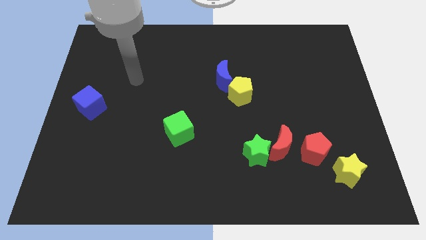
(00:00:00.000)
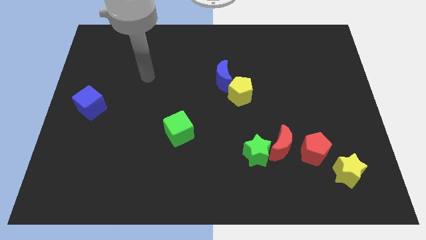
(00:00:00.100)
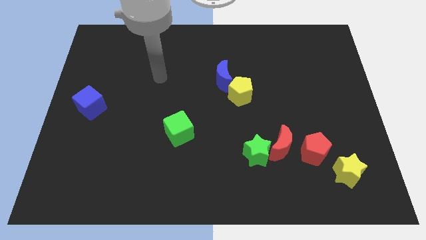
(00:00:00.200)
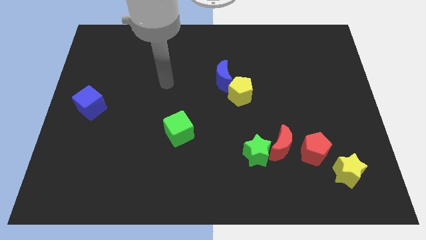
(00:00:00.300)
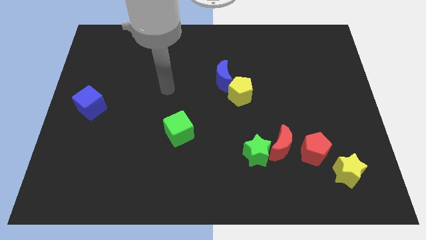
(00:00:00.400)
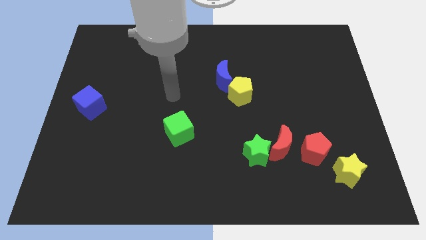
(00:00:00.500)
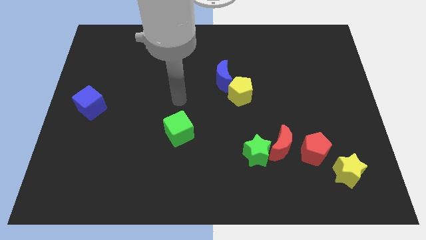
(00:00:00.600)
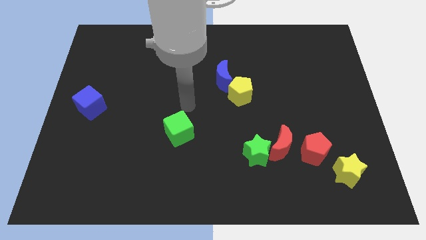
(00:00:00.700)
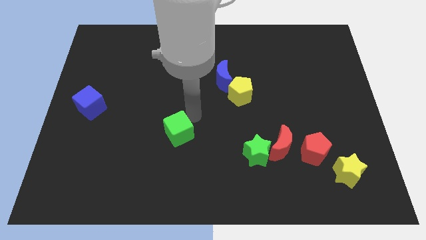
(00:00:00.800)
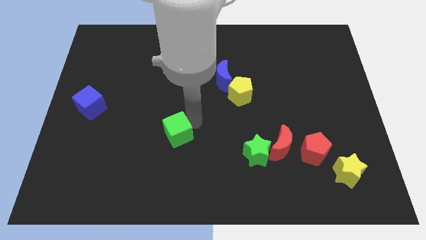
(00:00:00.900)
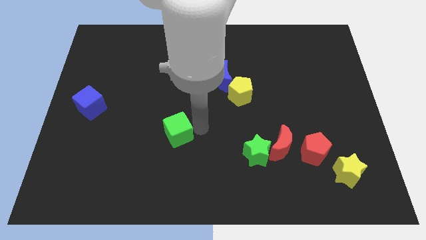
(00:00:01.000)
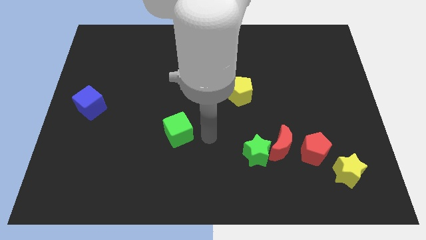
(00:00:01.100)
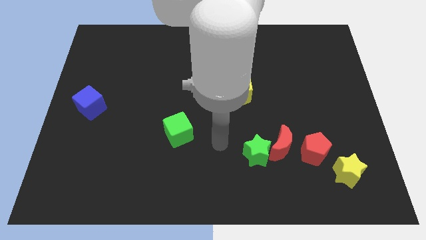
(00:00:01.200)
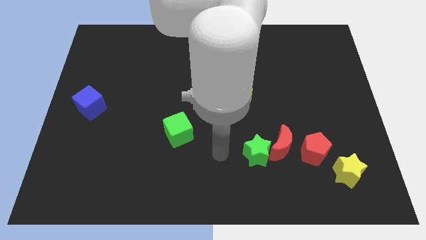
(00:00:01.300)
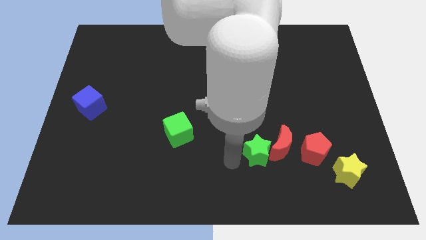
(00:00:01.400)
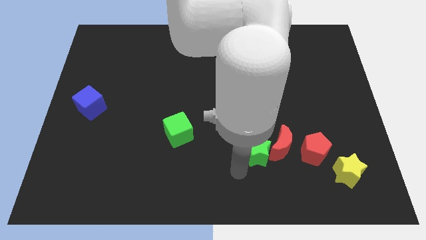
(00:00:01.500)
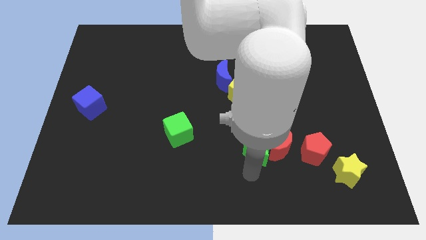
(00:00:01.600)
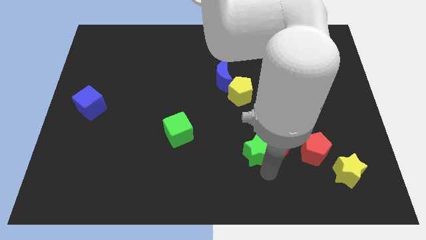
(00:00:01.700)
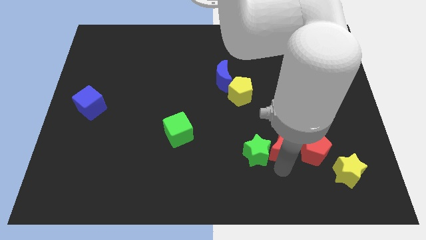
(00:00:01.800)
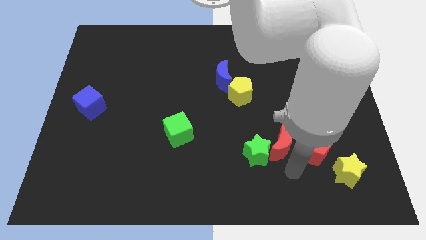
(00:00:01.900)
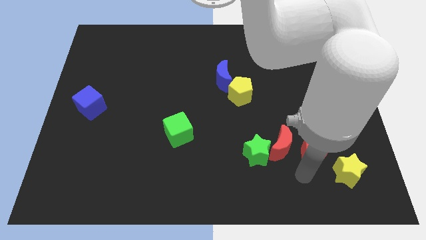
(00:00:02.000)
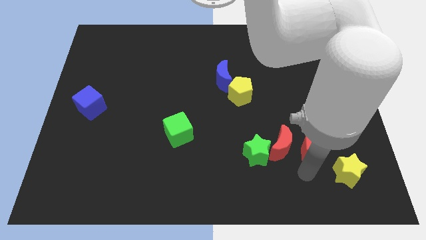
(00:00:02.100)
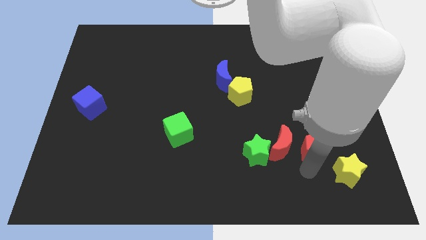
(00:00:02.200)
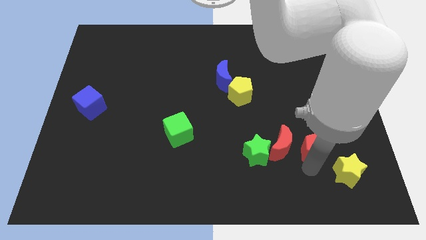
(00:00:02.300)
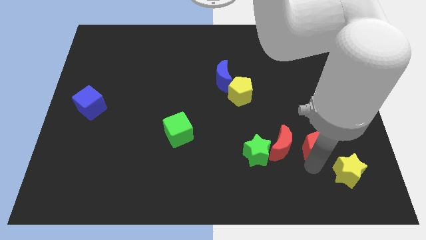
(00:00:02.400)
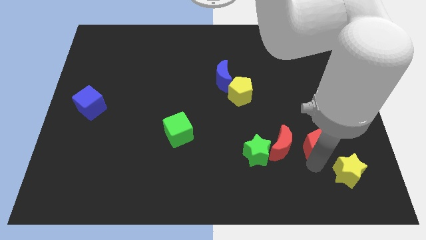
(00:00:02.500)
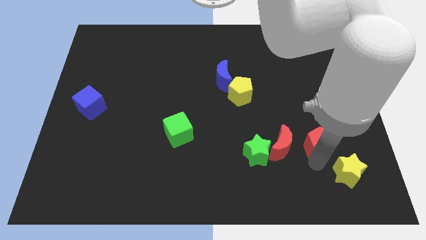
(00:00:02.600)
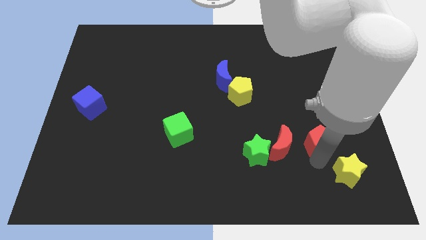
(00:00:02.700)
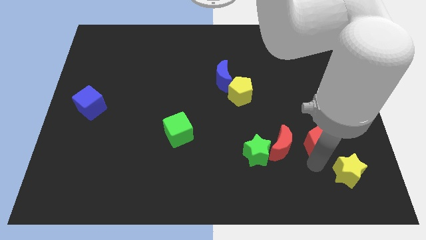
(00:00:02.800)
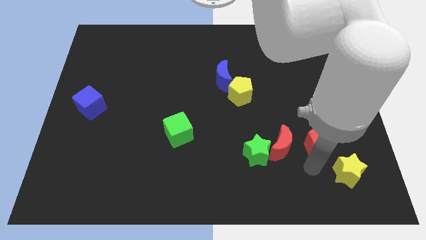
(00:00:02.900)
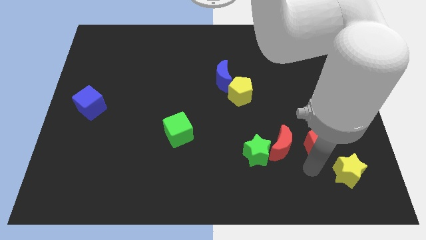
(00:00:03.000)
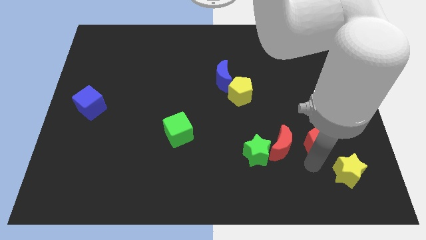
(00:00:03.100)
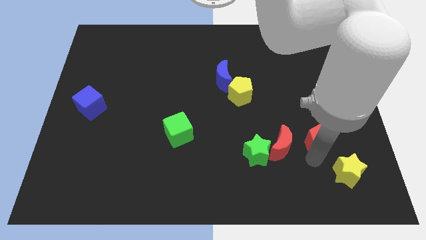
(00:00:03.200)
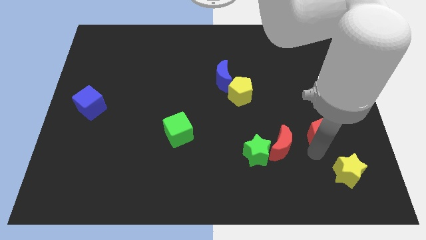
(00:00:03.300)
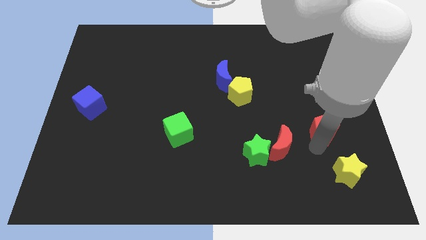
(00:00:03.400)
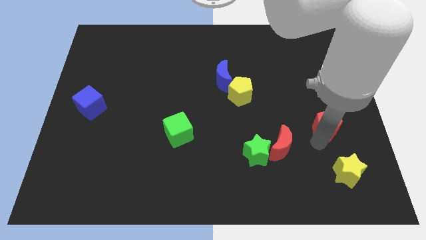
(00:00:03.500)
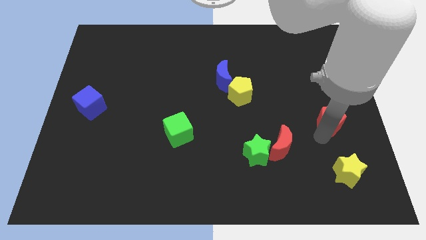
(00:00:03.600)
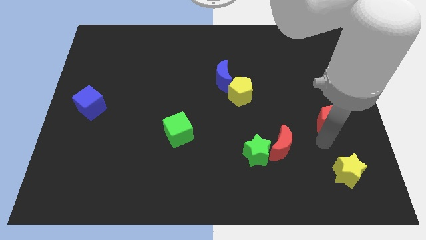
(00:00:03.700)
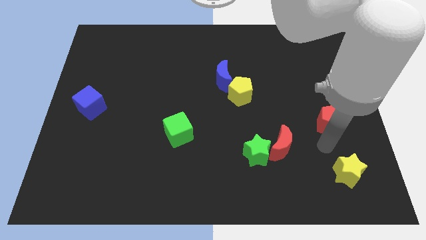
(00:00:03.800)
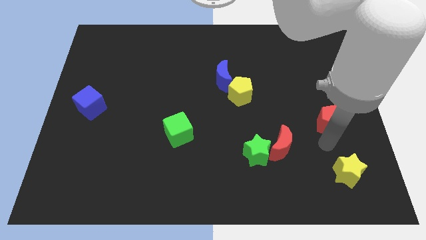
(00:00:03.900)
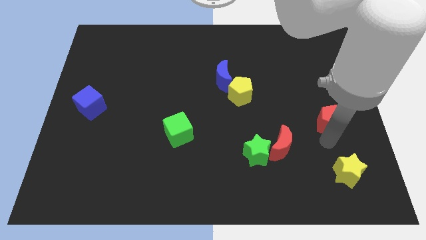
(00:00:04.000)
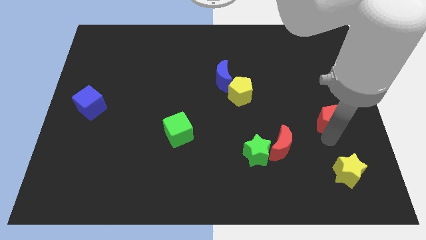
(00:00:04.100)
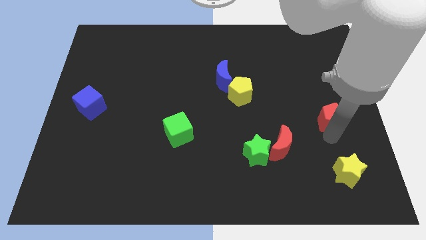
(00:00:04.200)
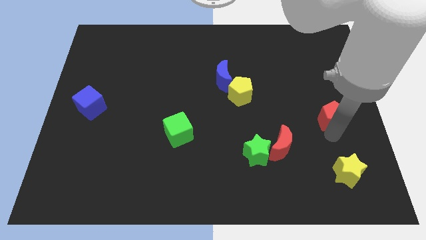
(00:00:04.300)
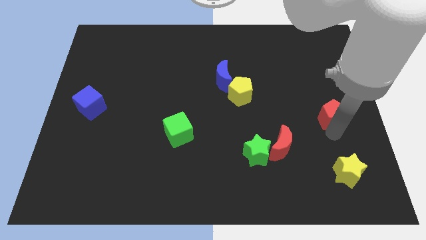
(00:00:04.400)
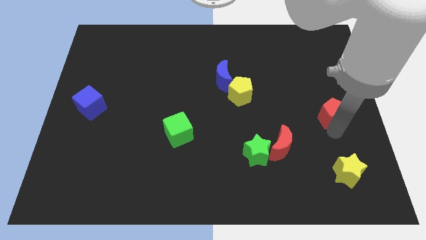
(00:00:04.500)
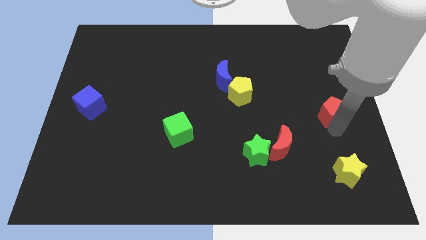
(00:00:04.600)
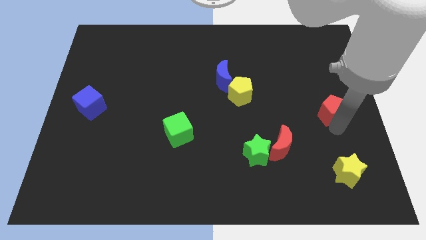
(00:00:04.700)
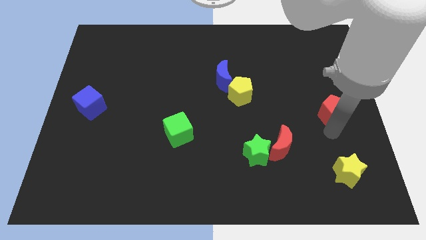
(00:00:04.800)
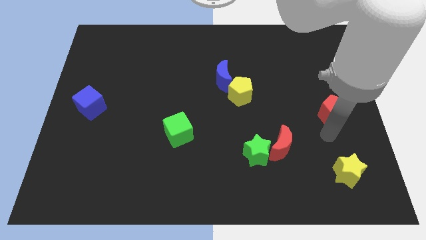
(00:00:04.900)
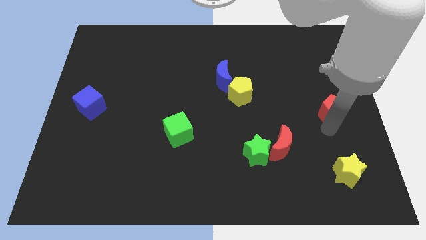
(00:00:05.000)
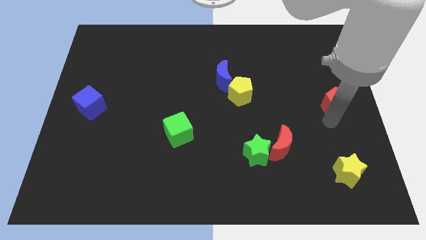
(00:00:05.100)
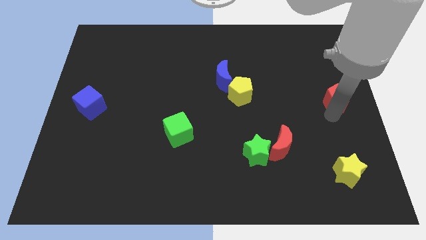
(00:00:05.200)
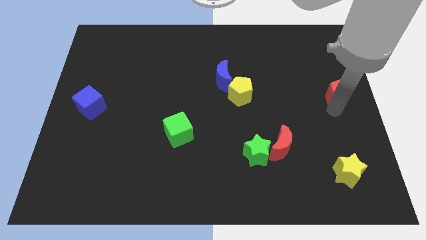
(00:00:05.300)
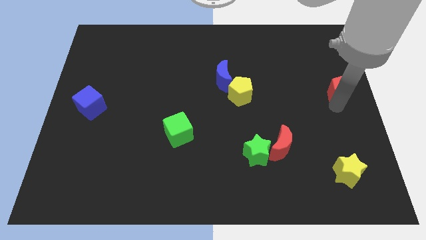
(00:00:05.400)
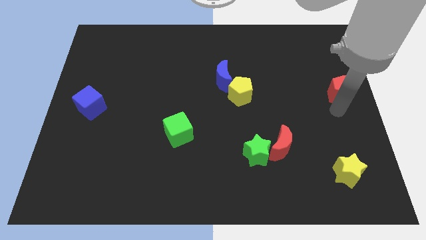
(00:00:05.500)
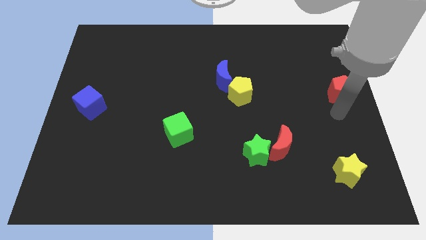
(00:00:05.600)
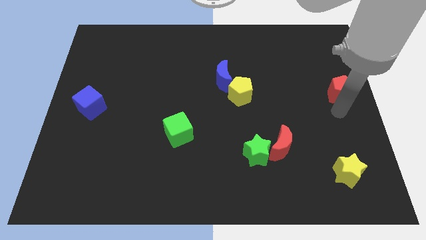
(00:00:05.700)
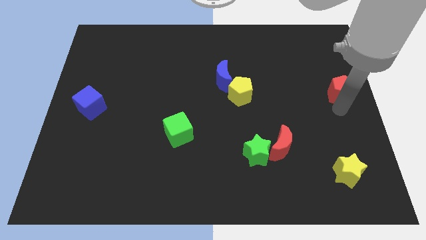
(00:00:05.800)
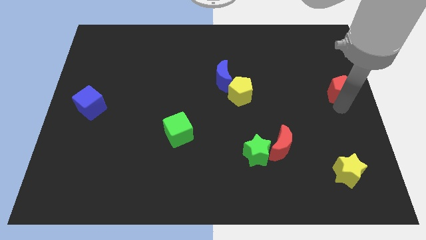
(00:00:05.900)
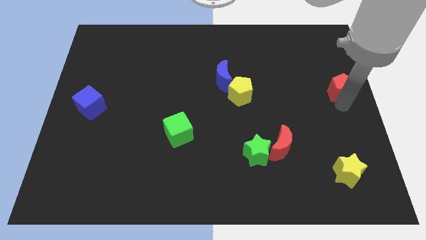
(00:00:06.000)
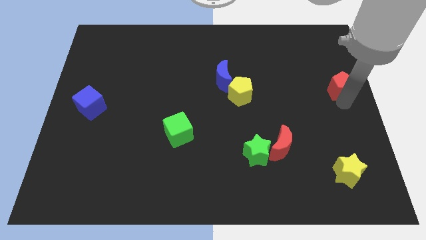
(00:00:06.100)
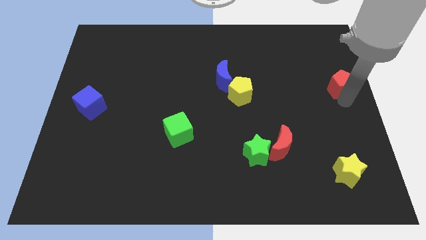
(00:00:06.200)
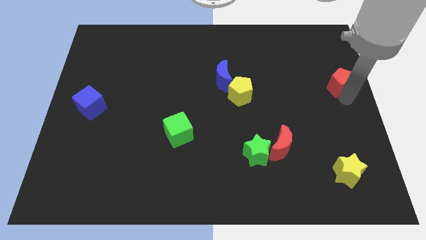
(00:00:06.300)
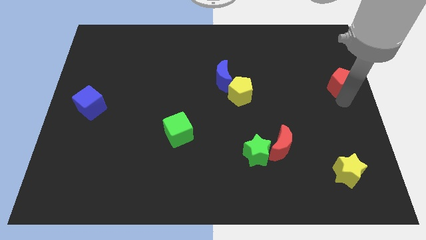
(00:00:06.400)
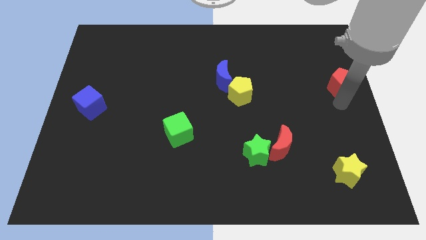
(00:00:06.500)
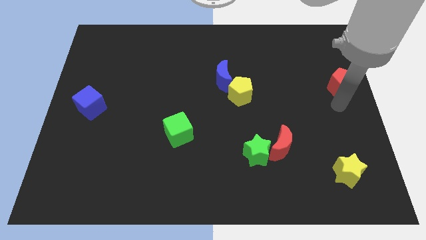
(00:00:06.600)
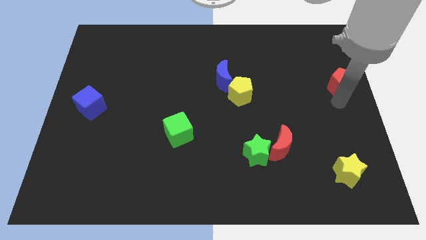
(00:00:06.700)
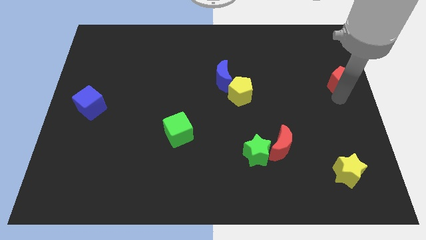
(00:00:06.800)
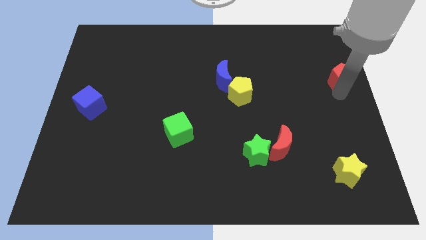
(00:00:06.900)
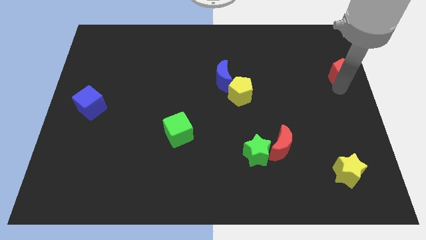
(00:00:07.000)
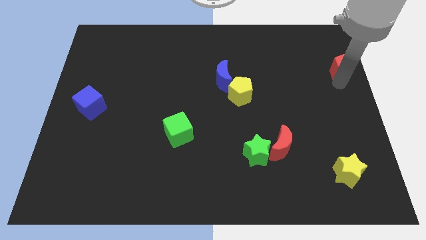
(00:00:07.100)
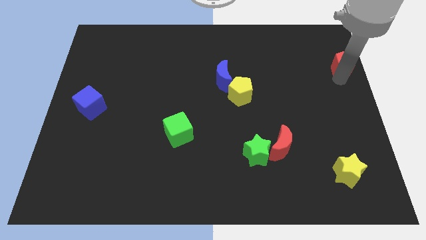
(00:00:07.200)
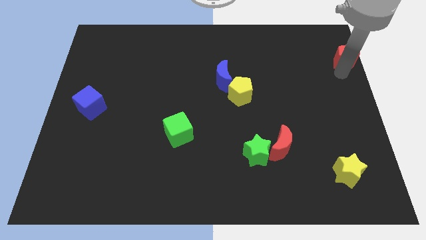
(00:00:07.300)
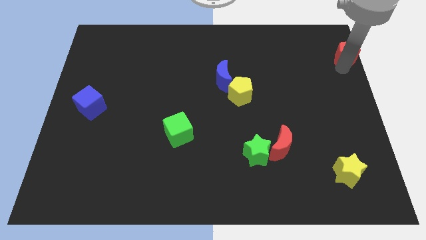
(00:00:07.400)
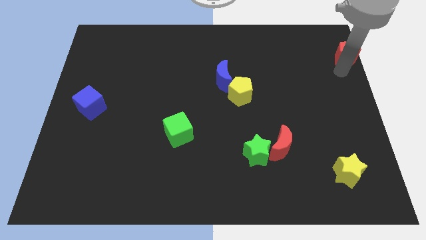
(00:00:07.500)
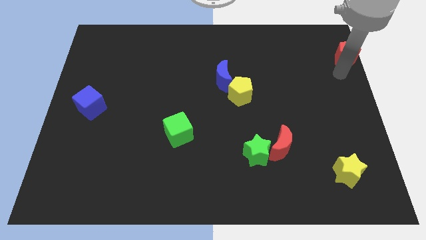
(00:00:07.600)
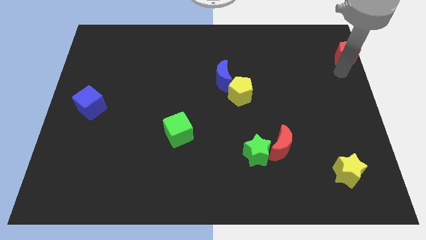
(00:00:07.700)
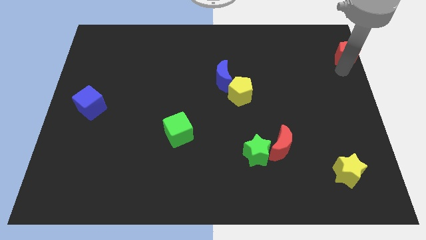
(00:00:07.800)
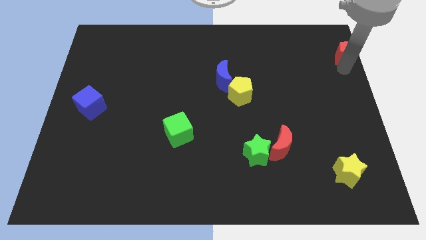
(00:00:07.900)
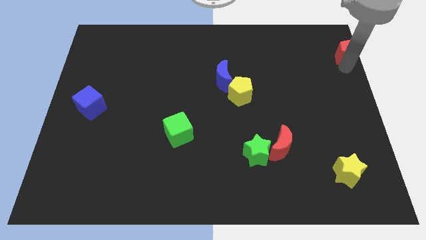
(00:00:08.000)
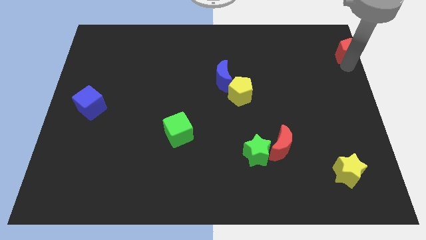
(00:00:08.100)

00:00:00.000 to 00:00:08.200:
push the red pentagon to the top right
